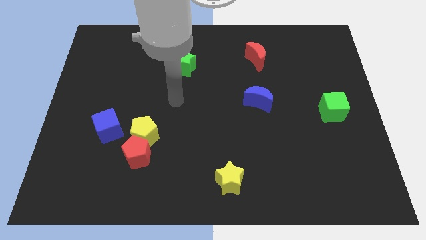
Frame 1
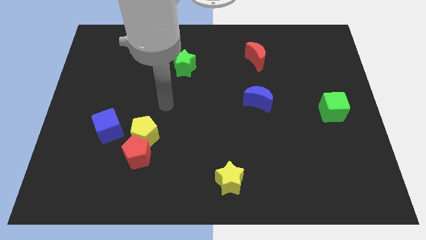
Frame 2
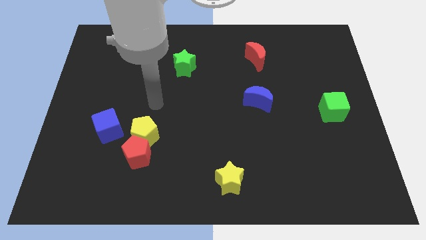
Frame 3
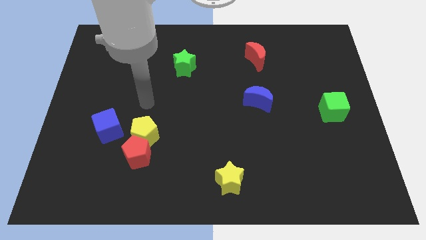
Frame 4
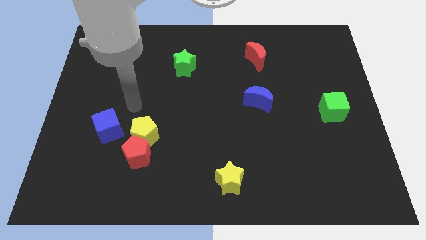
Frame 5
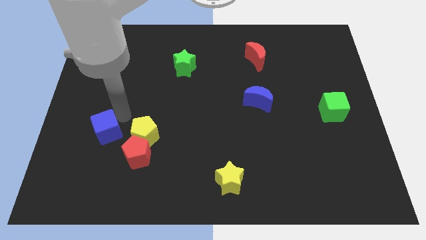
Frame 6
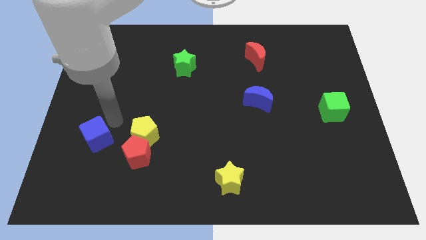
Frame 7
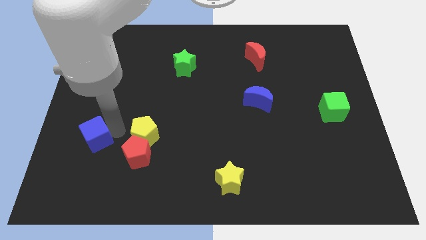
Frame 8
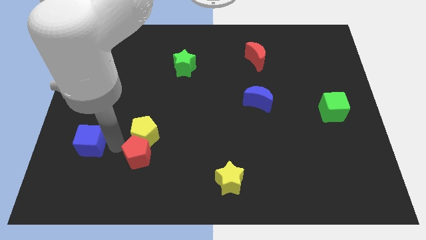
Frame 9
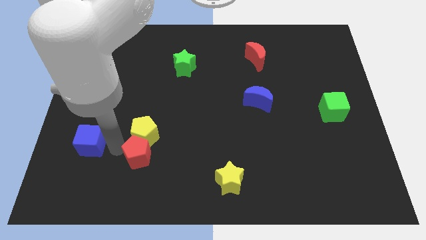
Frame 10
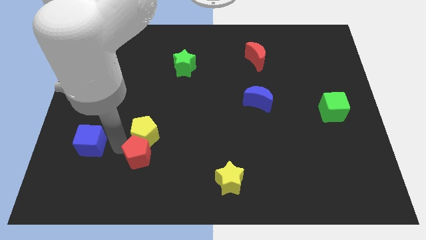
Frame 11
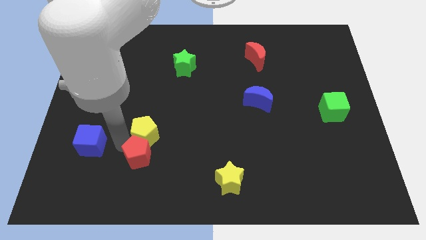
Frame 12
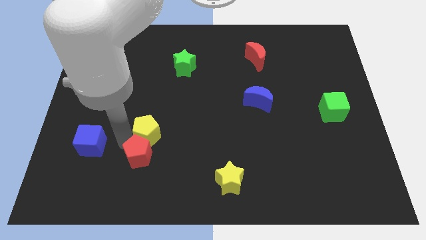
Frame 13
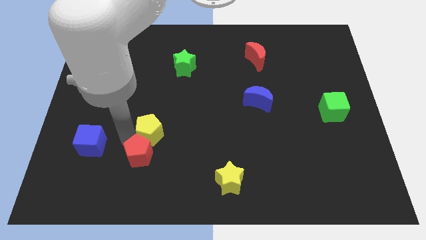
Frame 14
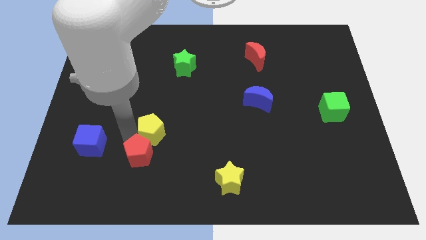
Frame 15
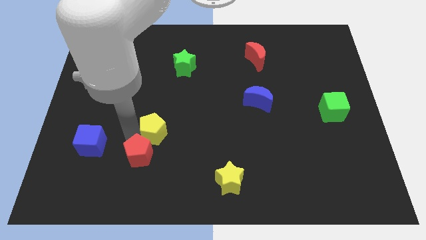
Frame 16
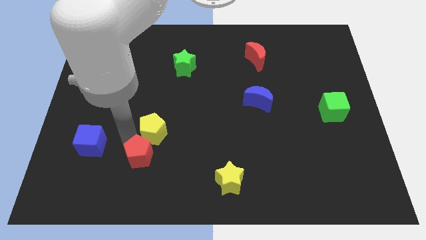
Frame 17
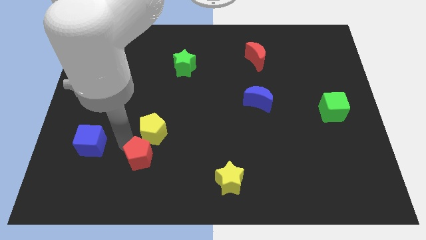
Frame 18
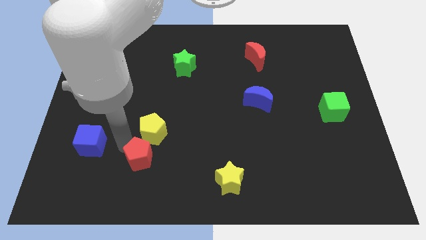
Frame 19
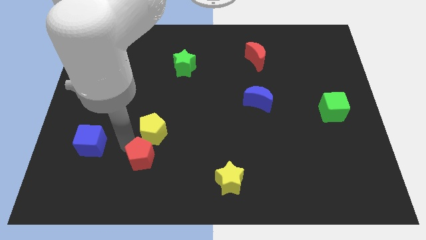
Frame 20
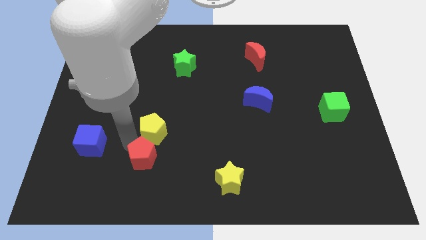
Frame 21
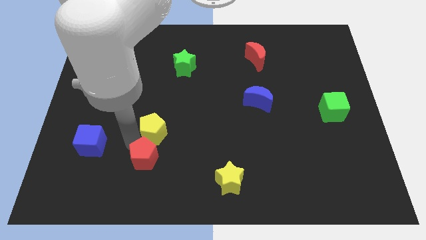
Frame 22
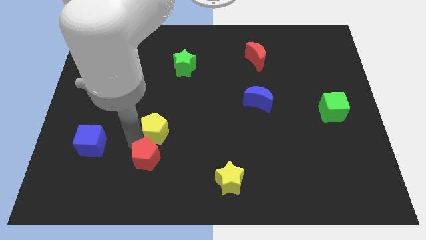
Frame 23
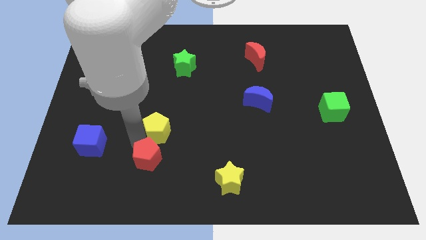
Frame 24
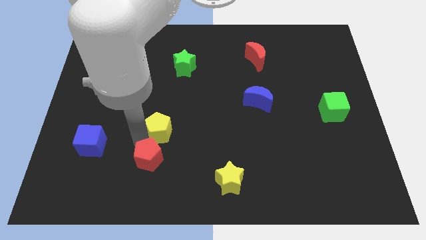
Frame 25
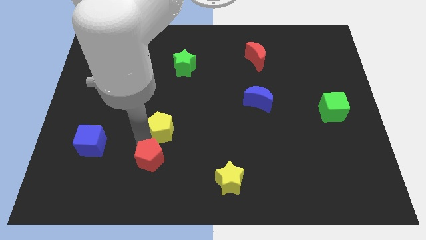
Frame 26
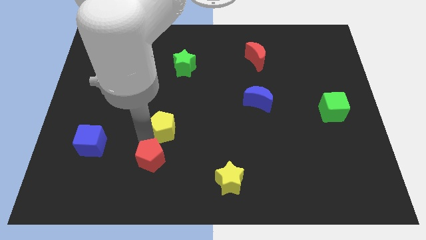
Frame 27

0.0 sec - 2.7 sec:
move the yellow pentagon away from the red pentagon and blue cube

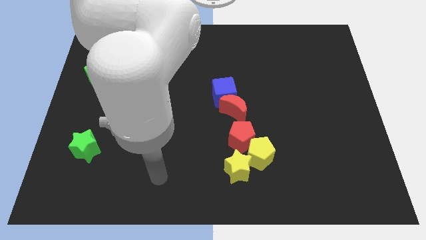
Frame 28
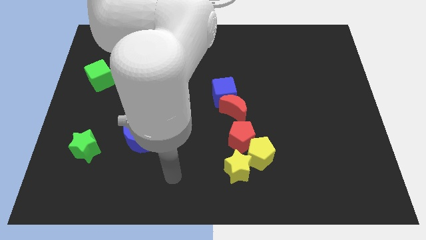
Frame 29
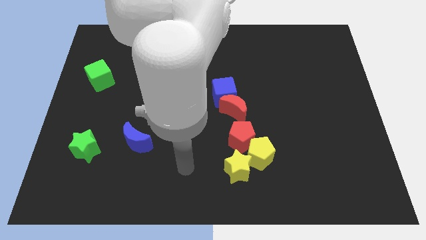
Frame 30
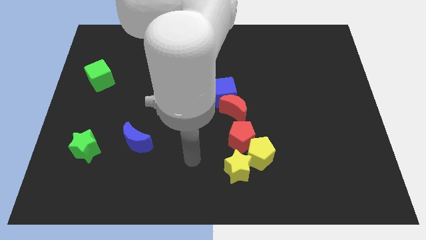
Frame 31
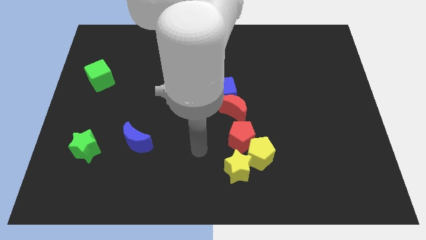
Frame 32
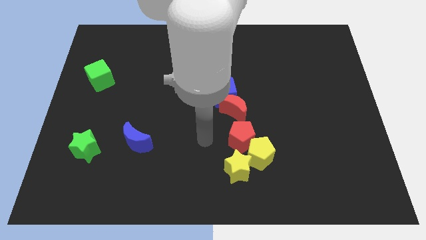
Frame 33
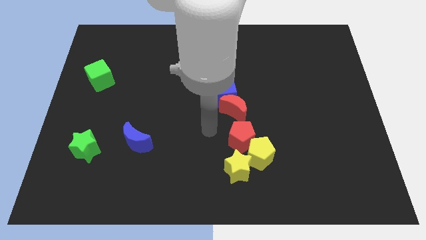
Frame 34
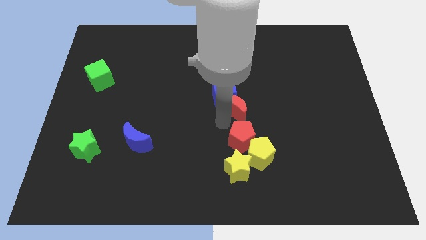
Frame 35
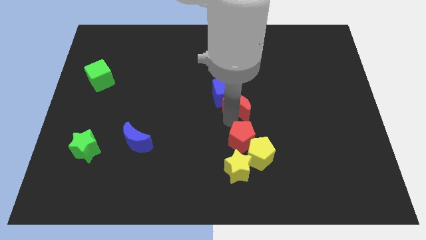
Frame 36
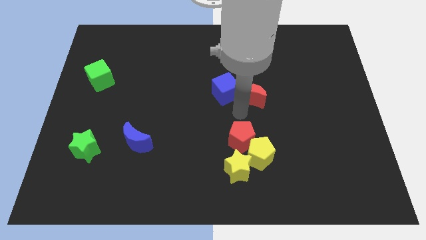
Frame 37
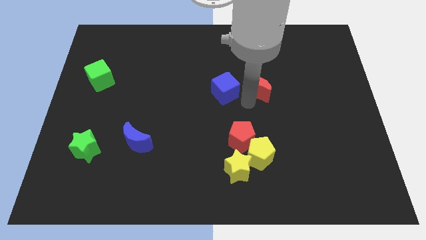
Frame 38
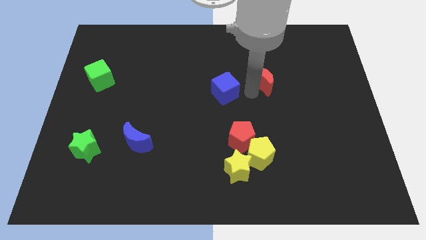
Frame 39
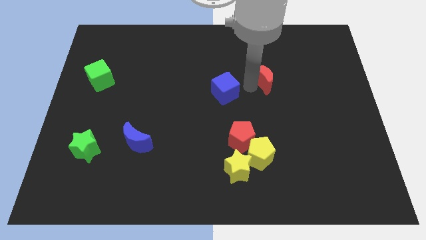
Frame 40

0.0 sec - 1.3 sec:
separate the blue cube from the red moon

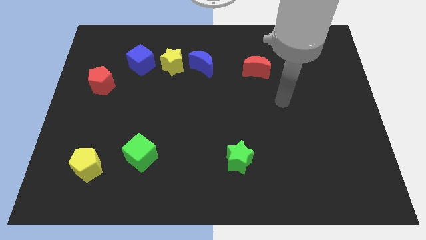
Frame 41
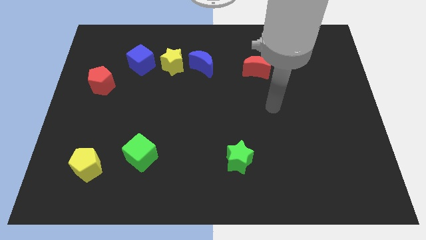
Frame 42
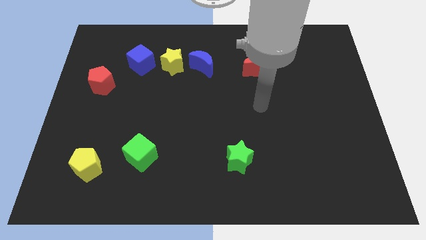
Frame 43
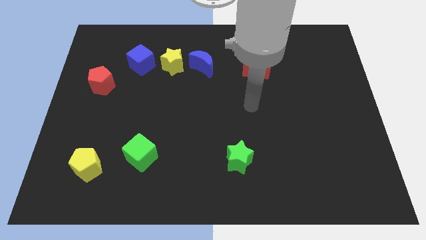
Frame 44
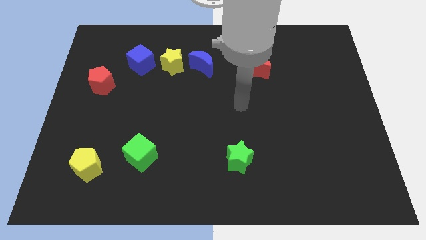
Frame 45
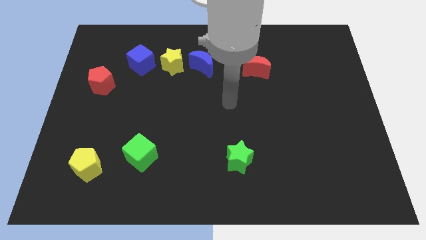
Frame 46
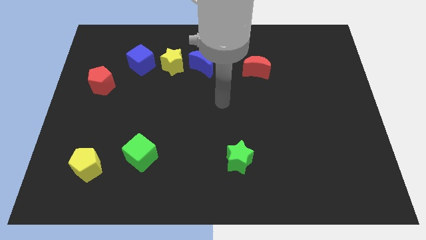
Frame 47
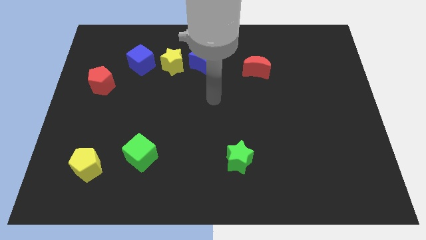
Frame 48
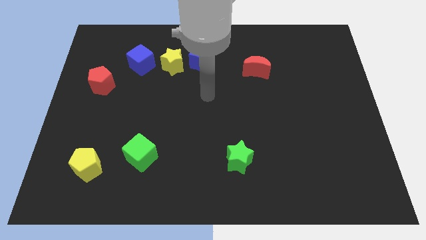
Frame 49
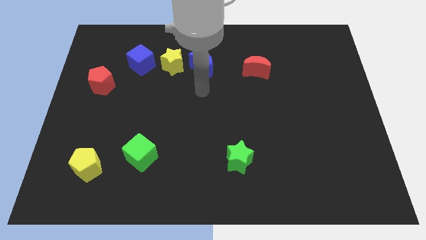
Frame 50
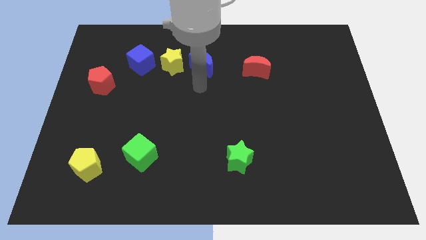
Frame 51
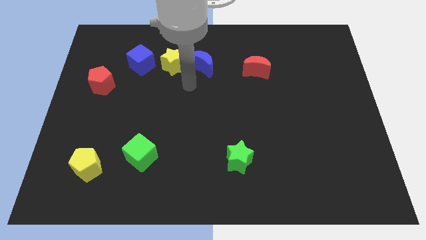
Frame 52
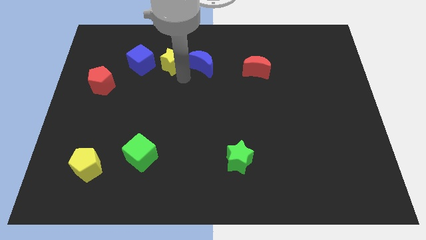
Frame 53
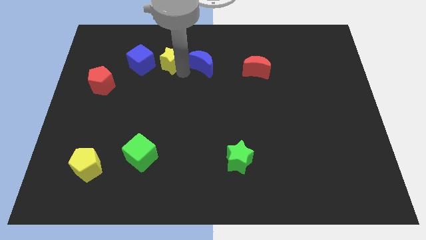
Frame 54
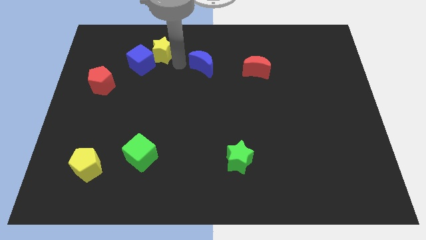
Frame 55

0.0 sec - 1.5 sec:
separate the blue moon from the yellow star

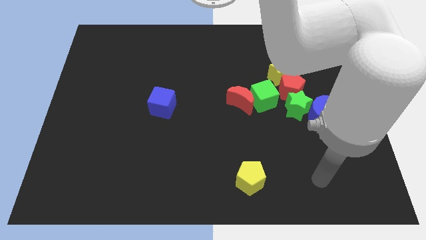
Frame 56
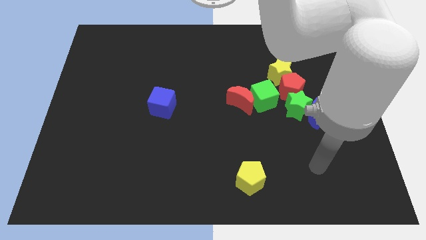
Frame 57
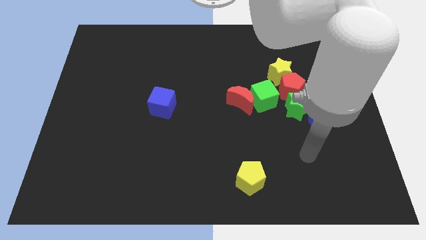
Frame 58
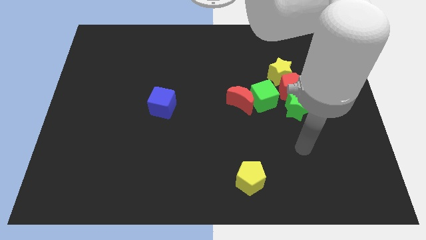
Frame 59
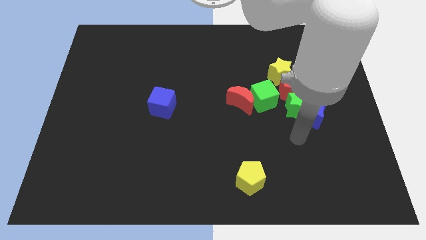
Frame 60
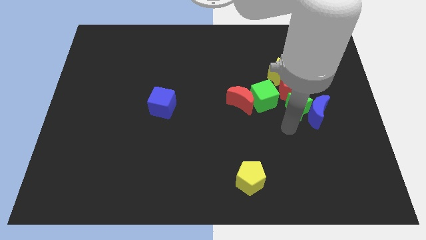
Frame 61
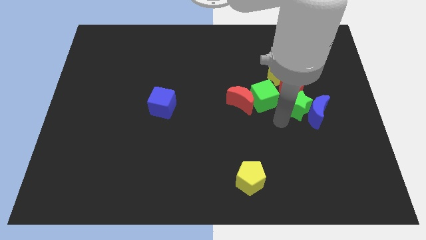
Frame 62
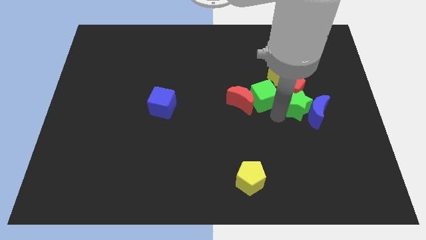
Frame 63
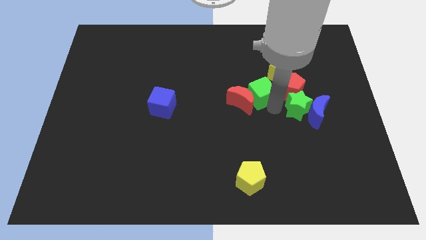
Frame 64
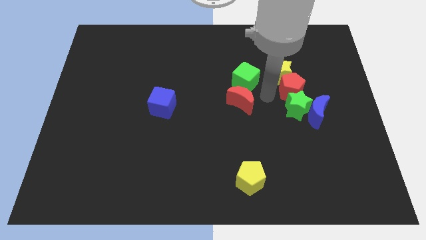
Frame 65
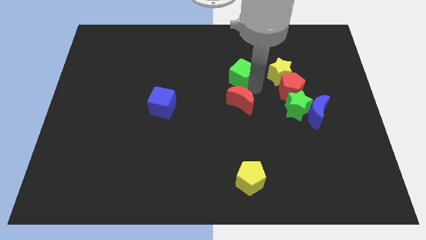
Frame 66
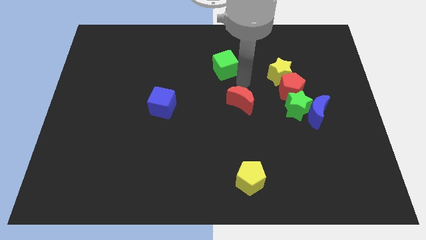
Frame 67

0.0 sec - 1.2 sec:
move the red moon away from the green cube

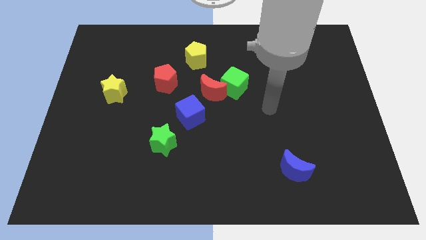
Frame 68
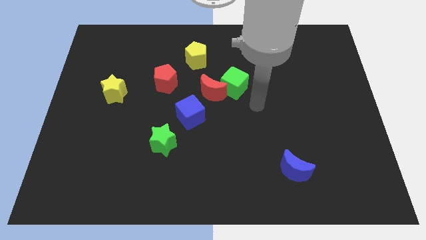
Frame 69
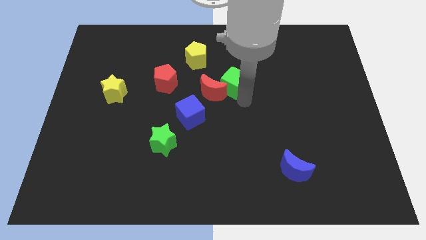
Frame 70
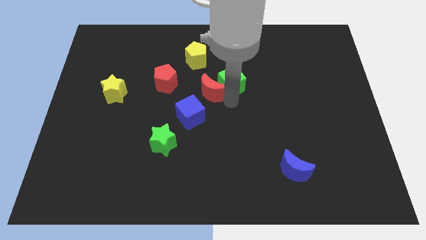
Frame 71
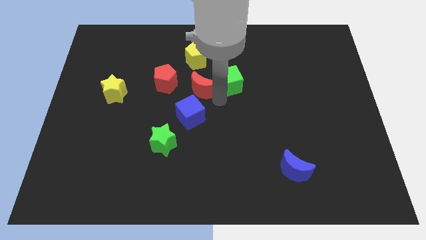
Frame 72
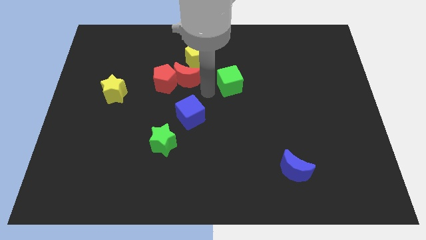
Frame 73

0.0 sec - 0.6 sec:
separate the green cube from the red moon

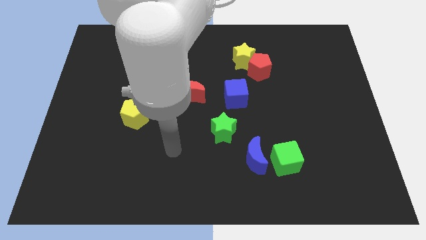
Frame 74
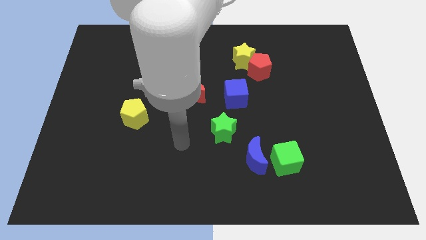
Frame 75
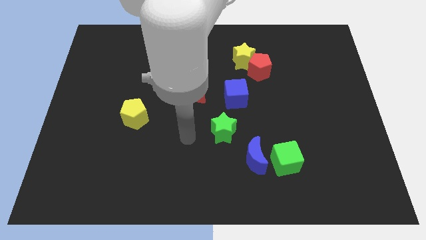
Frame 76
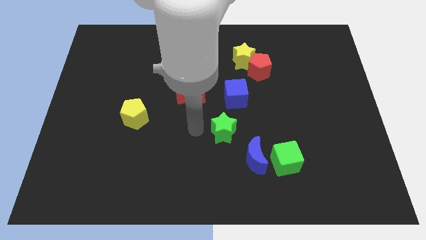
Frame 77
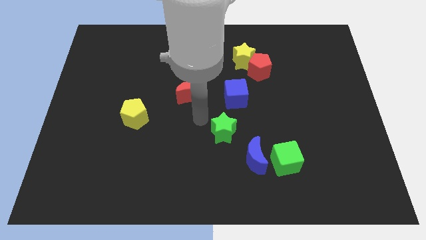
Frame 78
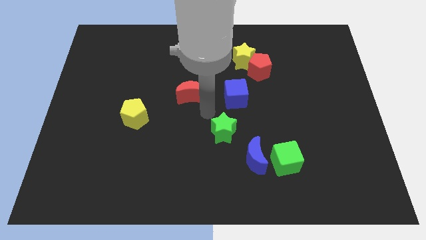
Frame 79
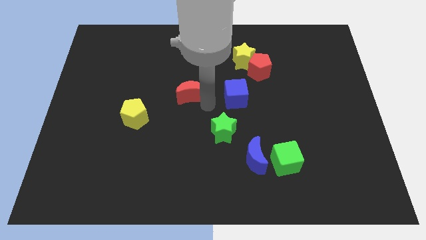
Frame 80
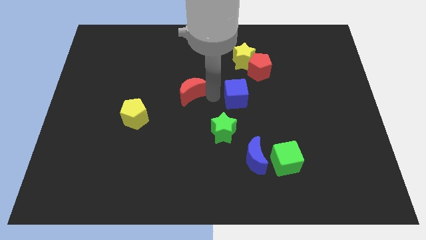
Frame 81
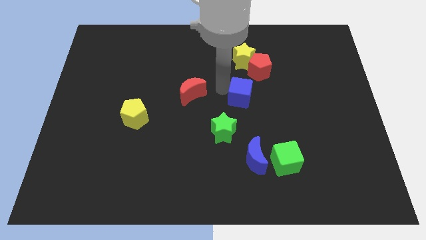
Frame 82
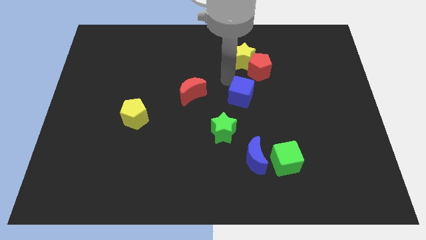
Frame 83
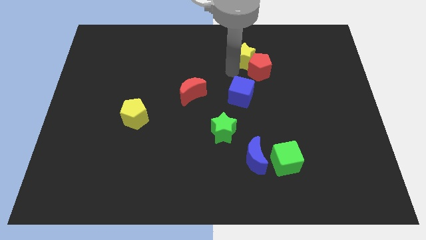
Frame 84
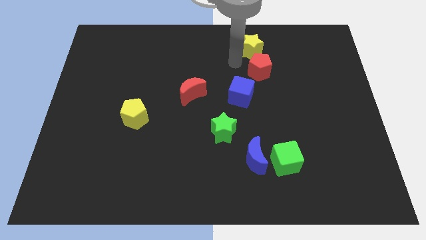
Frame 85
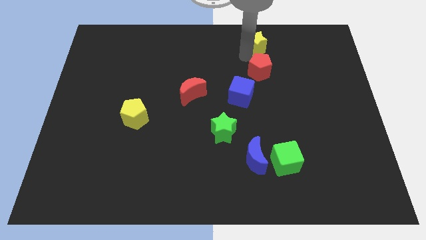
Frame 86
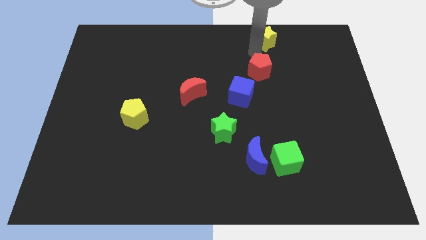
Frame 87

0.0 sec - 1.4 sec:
separate the red pentagon from the yellow star

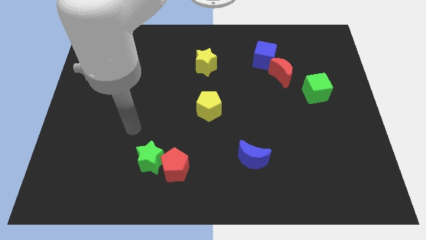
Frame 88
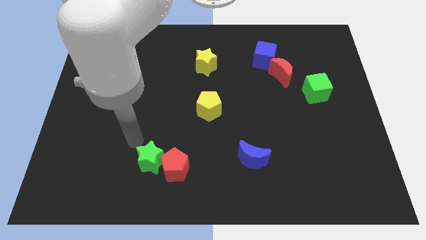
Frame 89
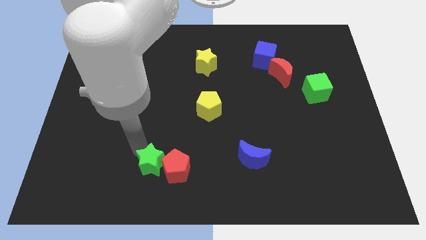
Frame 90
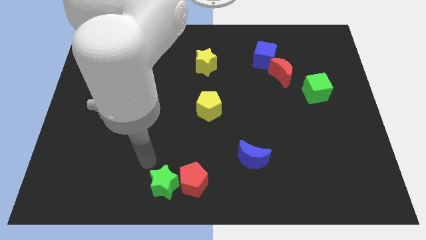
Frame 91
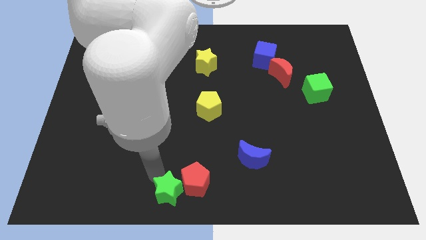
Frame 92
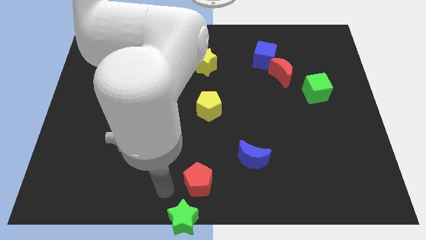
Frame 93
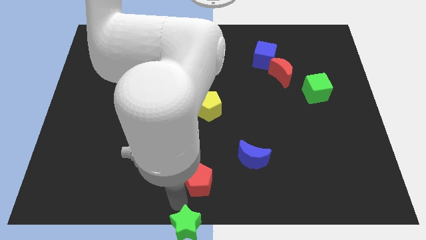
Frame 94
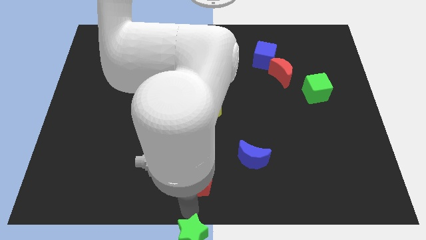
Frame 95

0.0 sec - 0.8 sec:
move the red pentagon away from the green star
